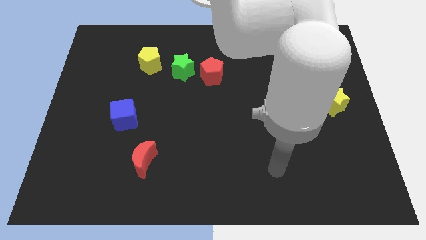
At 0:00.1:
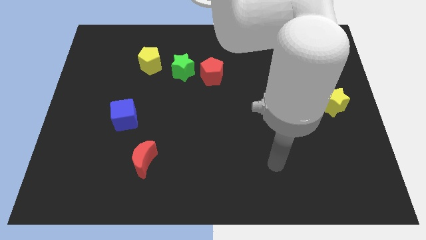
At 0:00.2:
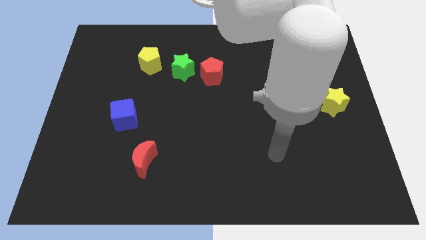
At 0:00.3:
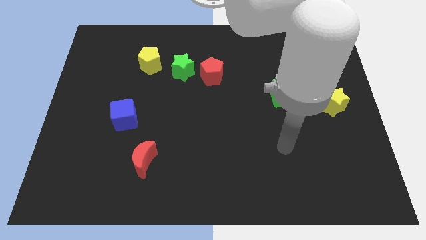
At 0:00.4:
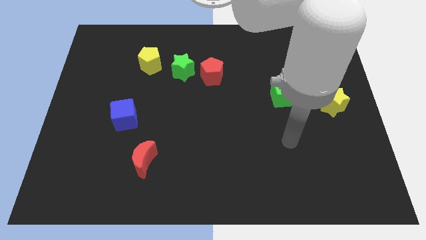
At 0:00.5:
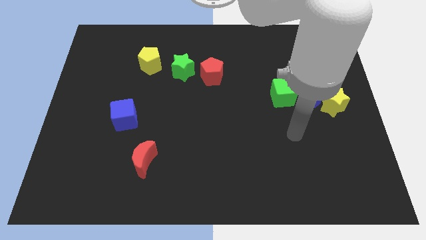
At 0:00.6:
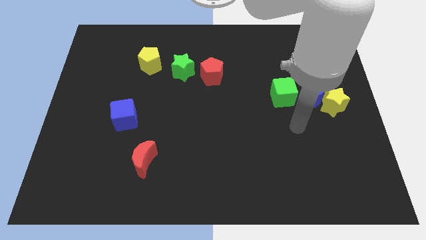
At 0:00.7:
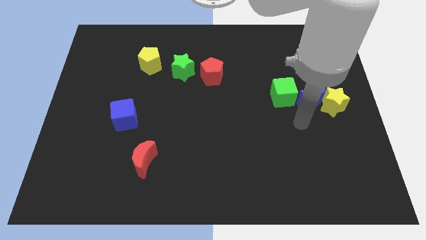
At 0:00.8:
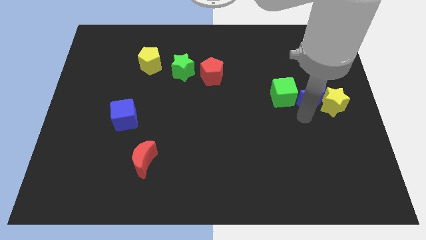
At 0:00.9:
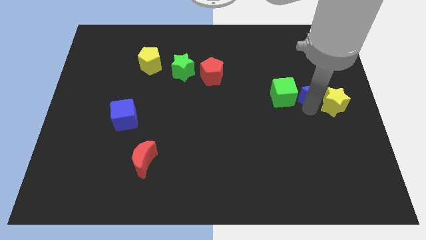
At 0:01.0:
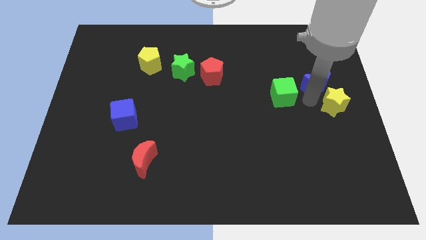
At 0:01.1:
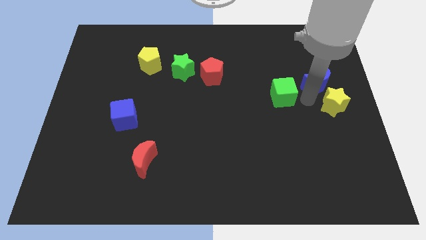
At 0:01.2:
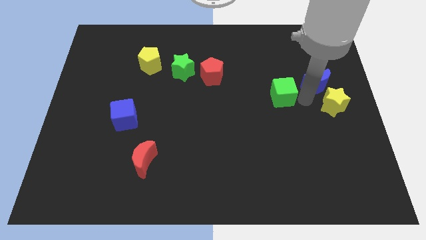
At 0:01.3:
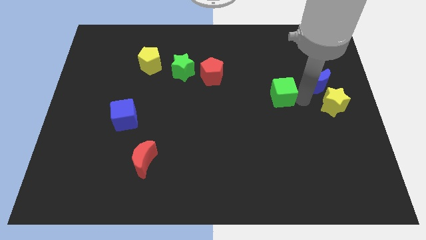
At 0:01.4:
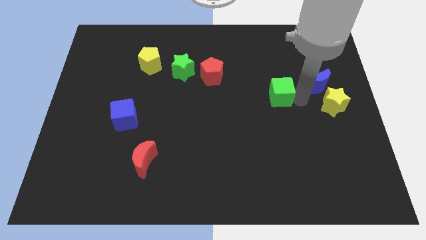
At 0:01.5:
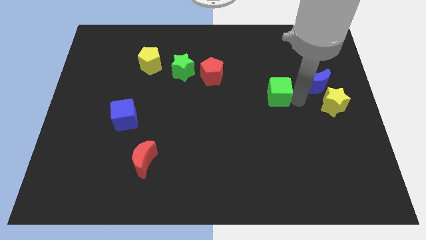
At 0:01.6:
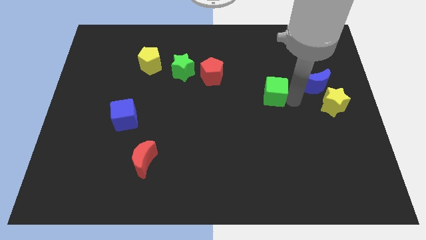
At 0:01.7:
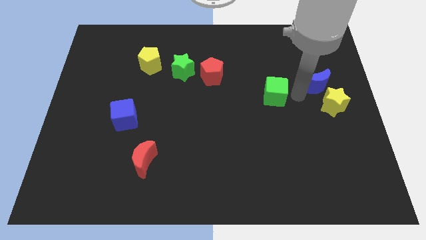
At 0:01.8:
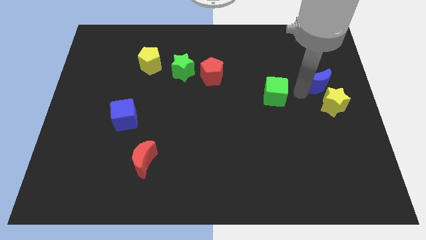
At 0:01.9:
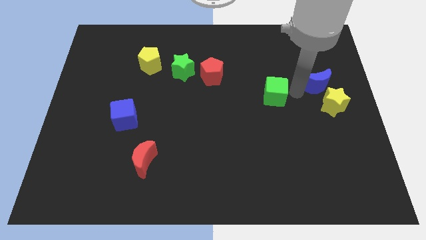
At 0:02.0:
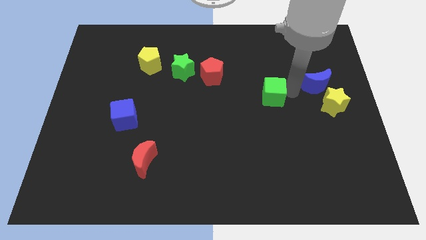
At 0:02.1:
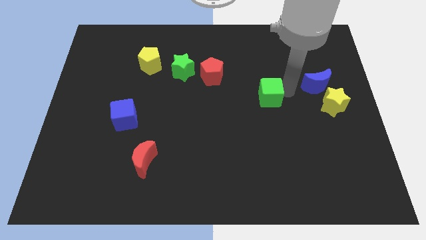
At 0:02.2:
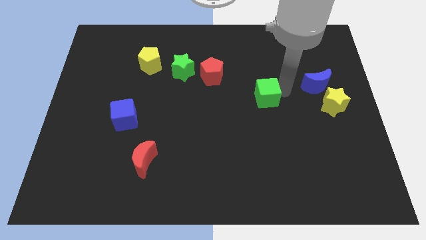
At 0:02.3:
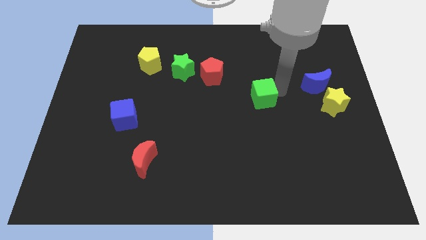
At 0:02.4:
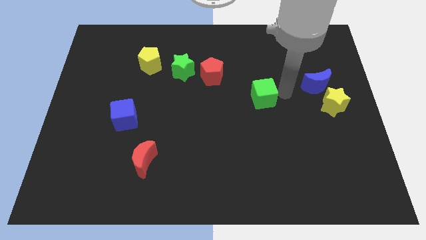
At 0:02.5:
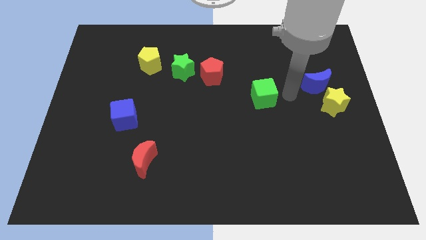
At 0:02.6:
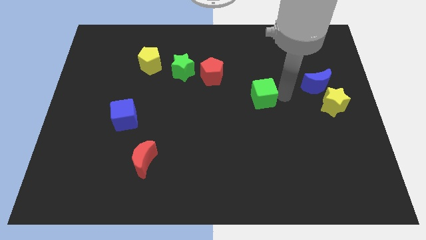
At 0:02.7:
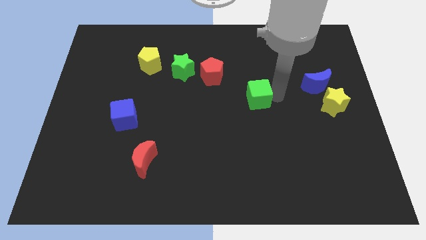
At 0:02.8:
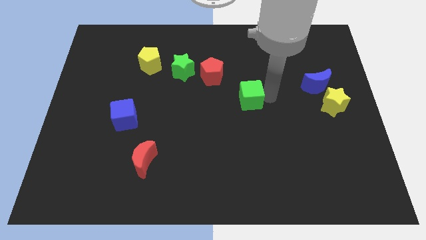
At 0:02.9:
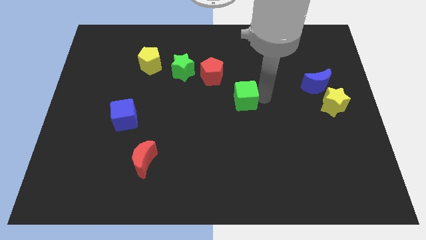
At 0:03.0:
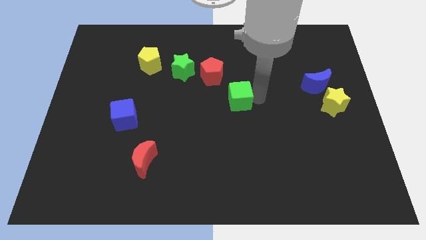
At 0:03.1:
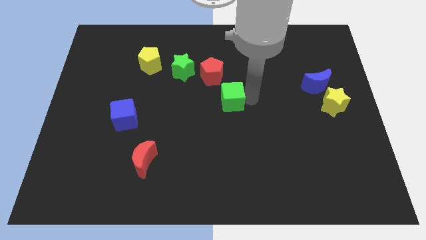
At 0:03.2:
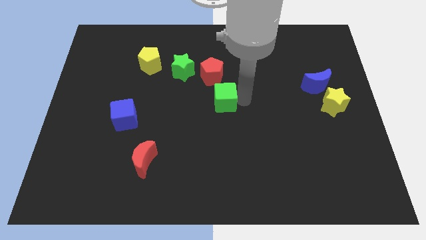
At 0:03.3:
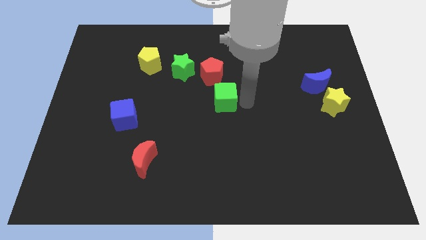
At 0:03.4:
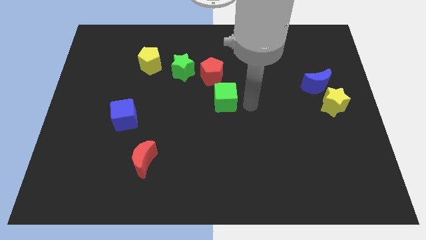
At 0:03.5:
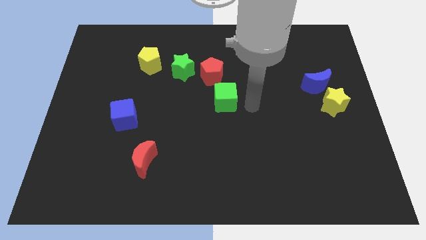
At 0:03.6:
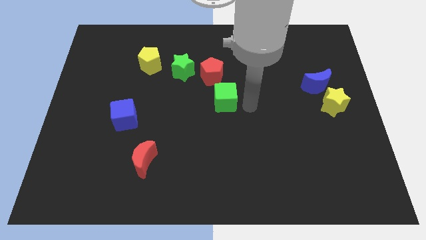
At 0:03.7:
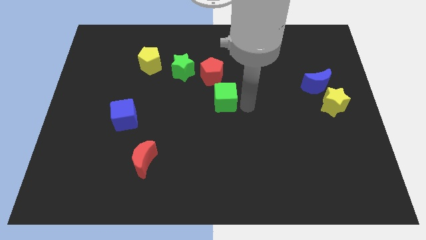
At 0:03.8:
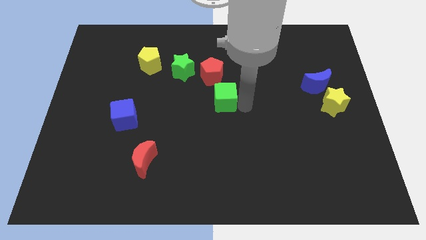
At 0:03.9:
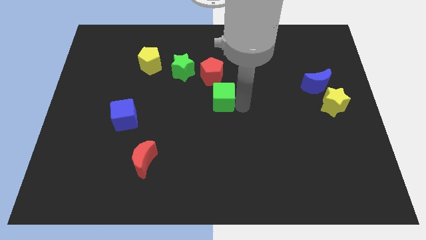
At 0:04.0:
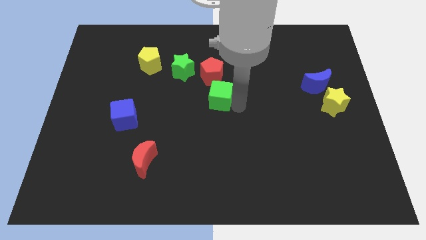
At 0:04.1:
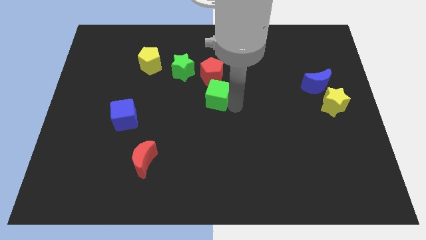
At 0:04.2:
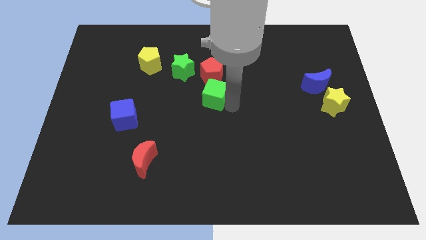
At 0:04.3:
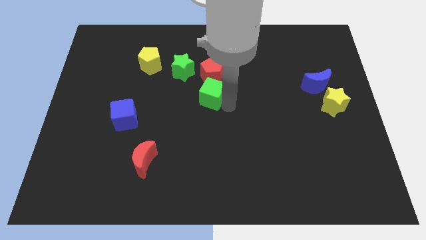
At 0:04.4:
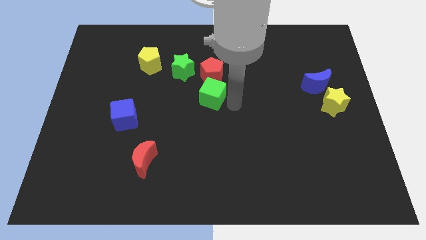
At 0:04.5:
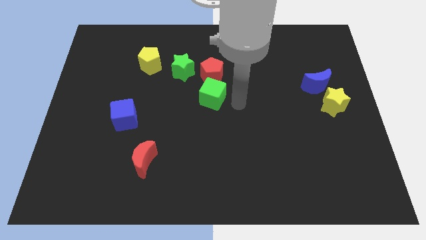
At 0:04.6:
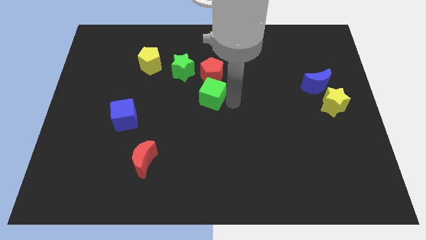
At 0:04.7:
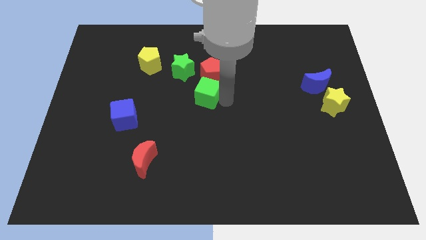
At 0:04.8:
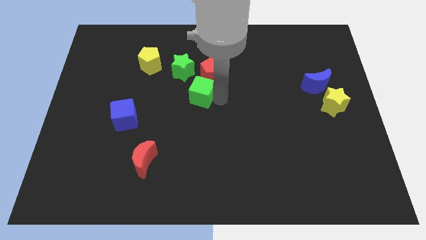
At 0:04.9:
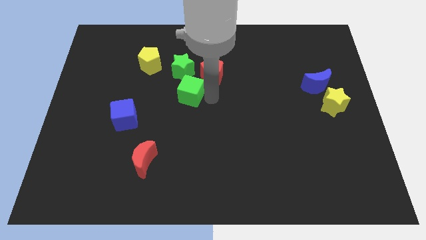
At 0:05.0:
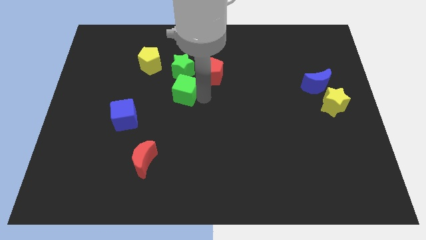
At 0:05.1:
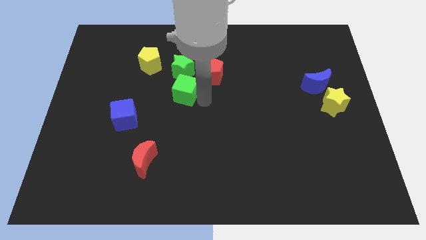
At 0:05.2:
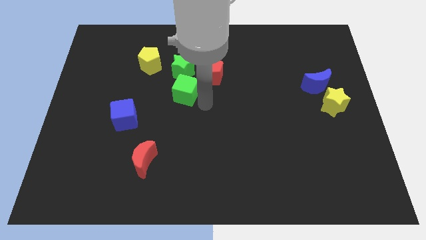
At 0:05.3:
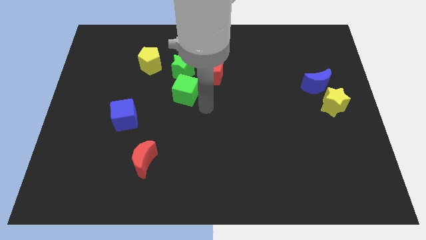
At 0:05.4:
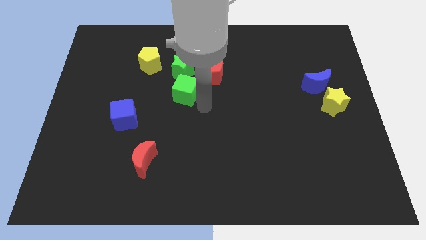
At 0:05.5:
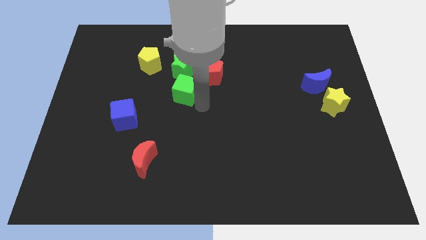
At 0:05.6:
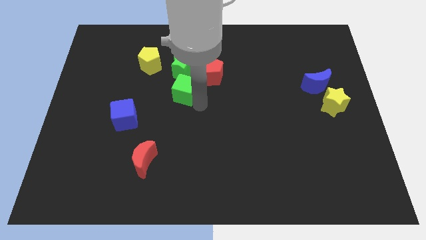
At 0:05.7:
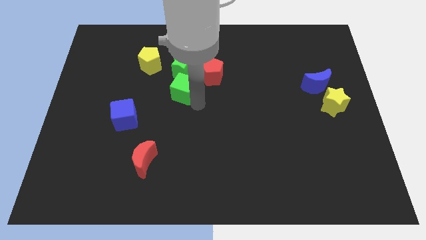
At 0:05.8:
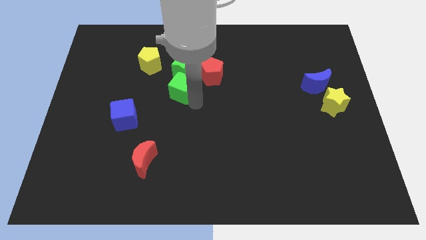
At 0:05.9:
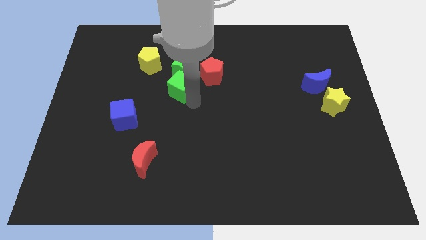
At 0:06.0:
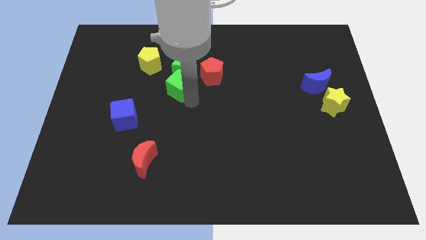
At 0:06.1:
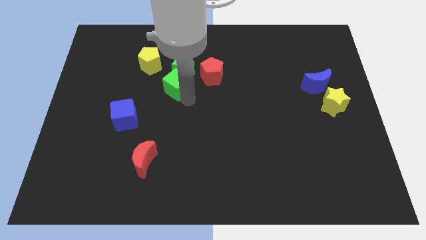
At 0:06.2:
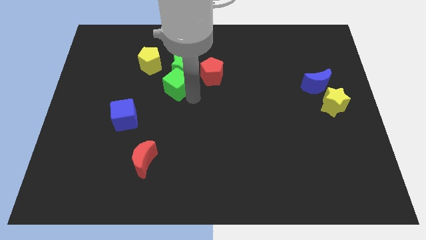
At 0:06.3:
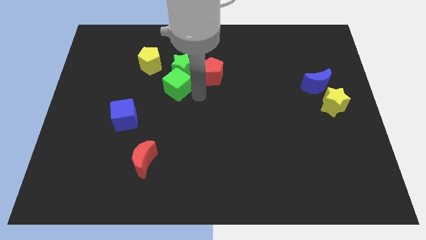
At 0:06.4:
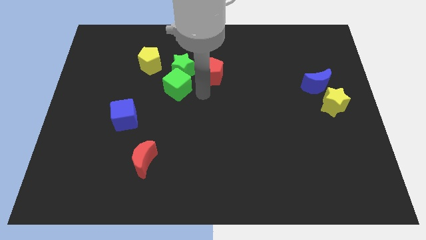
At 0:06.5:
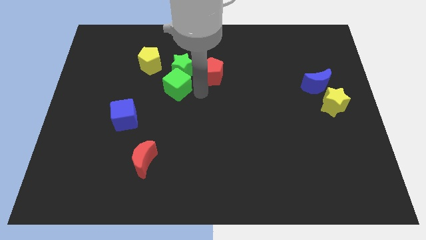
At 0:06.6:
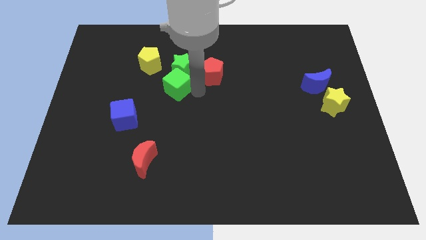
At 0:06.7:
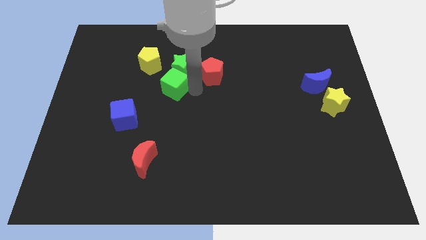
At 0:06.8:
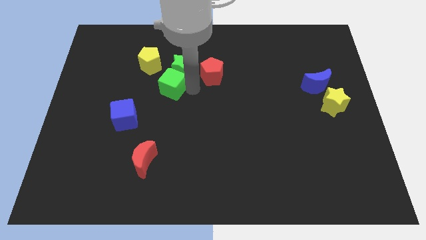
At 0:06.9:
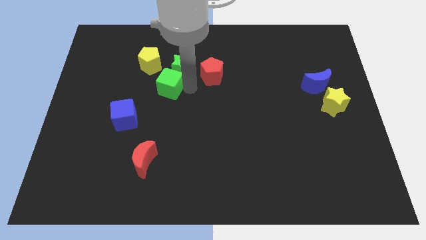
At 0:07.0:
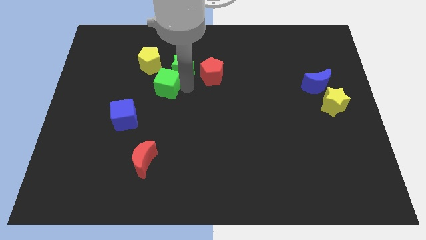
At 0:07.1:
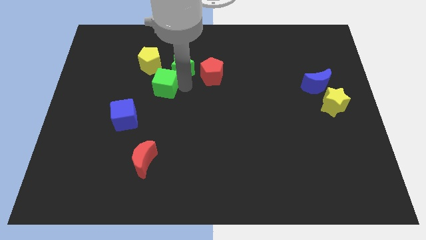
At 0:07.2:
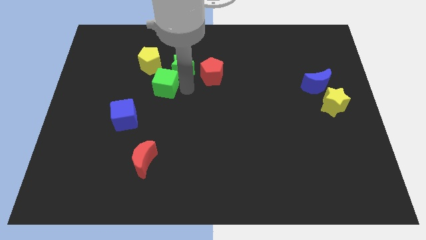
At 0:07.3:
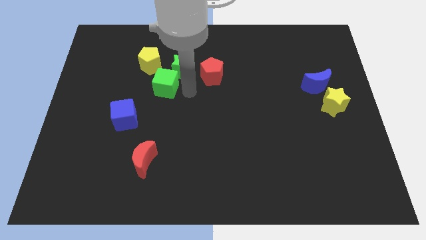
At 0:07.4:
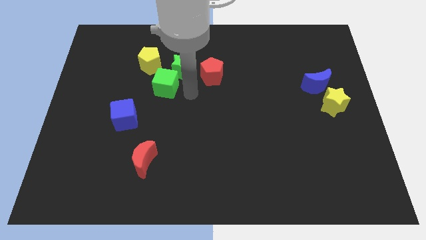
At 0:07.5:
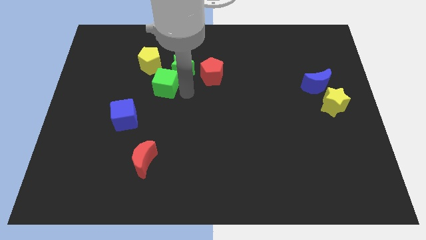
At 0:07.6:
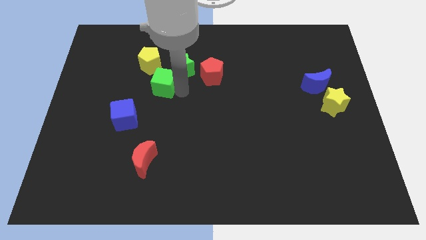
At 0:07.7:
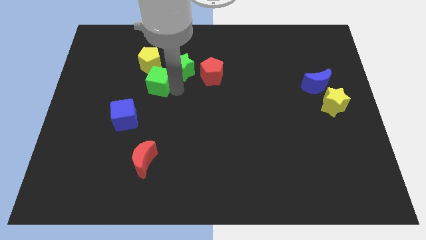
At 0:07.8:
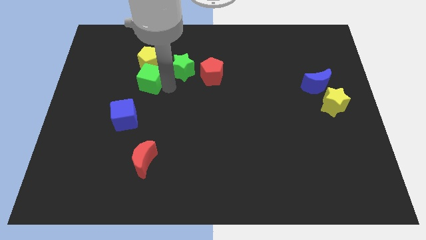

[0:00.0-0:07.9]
move the green cube to the bottom left side of the yellow pentagon
